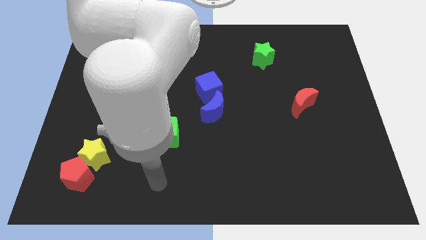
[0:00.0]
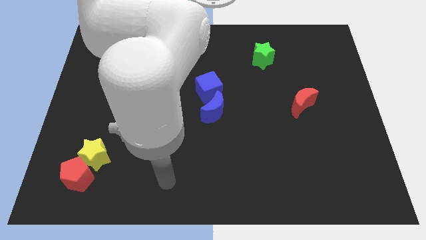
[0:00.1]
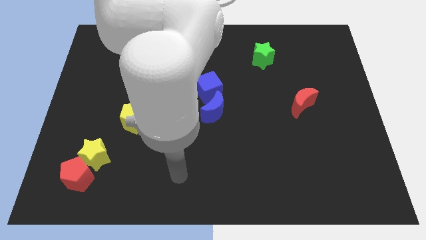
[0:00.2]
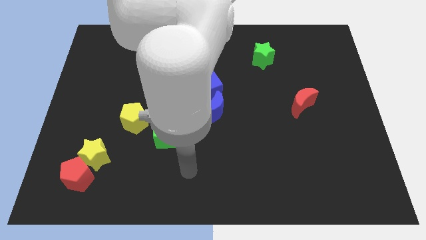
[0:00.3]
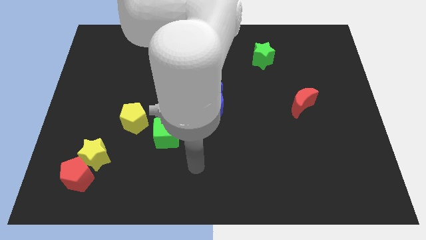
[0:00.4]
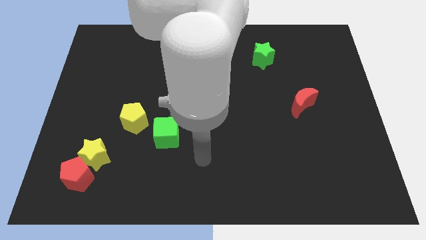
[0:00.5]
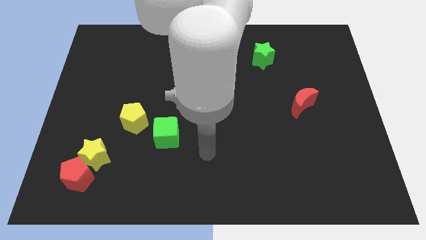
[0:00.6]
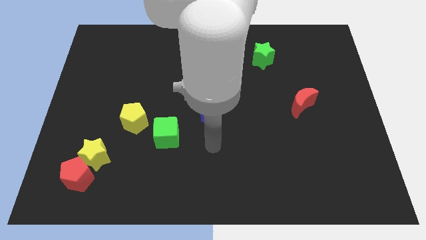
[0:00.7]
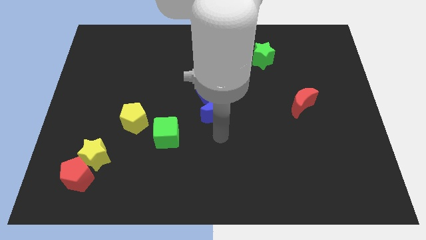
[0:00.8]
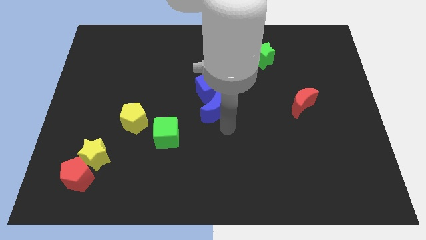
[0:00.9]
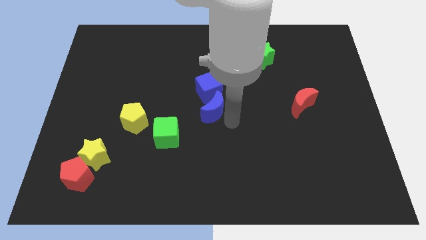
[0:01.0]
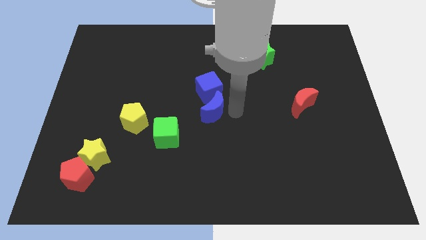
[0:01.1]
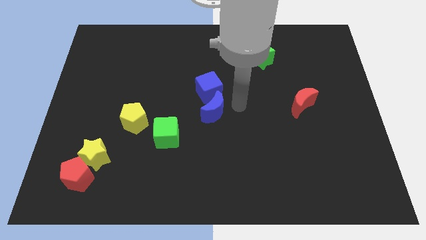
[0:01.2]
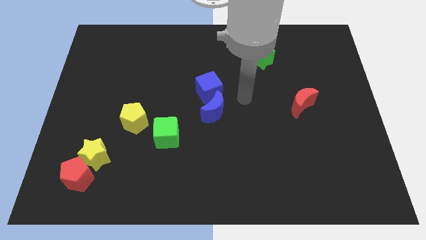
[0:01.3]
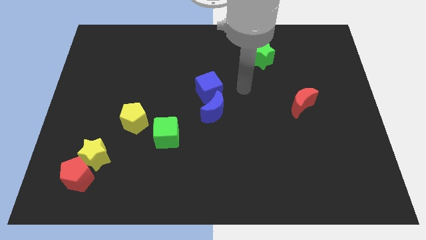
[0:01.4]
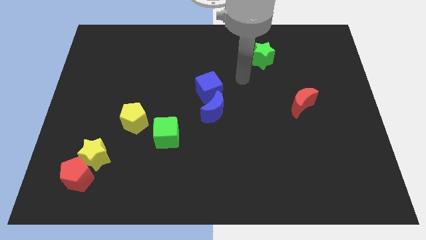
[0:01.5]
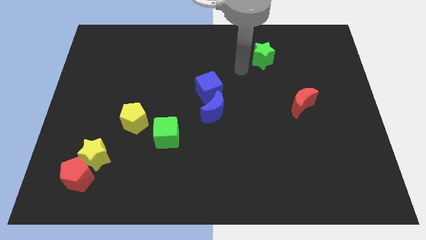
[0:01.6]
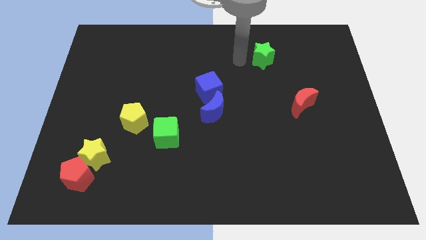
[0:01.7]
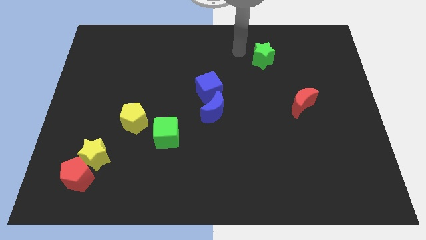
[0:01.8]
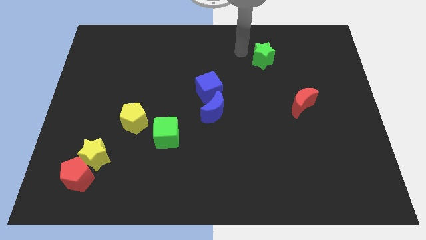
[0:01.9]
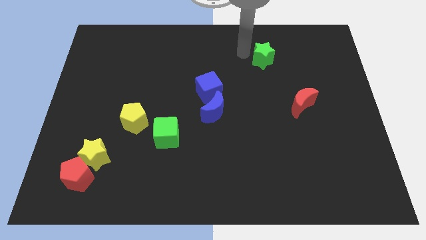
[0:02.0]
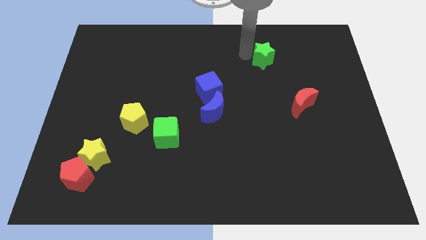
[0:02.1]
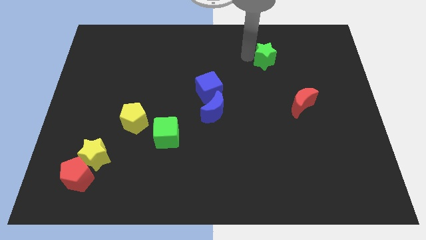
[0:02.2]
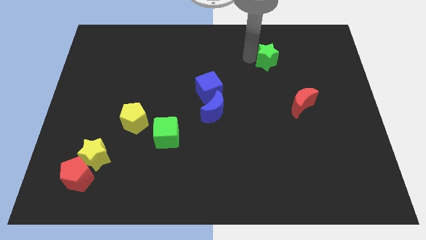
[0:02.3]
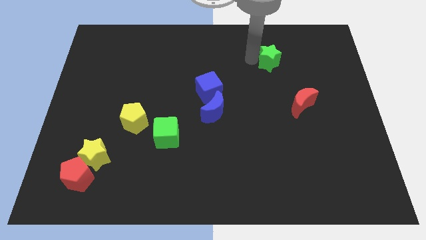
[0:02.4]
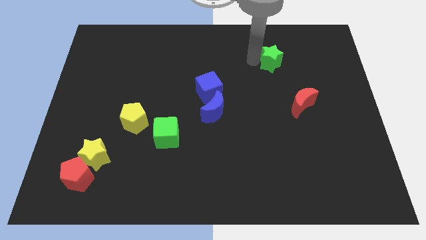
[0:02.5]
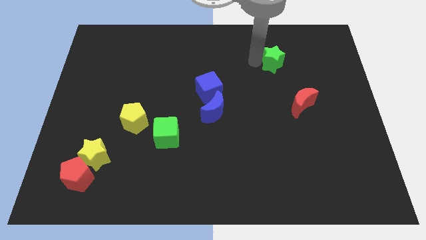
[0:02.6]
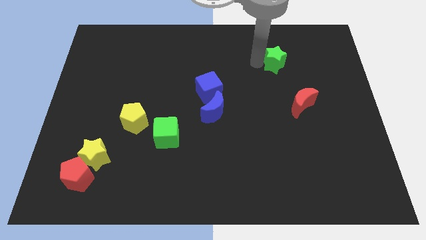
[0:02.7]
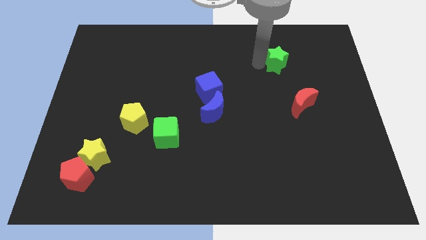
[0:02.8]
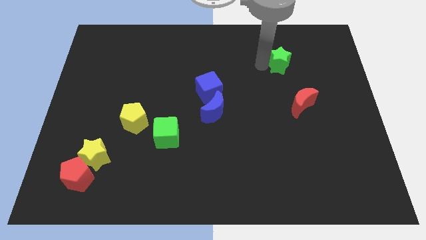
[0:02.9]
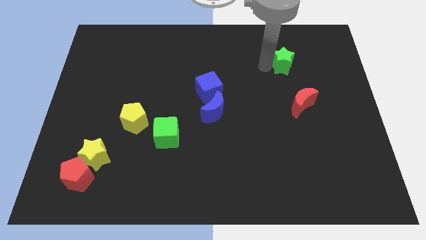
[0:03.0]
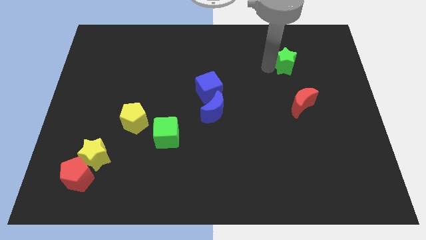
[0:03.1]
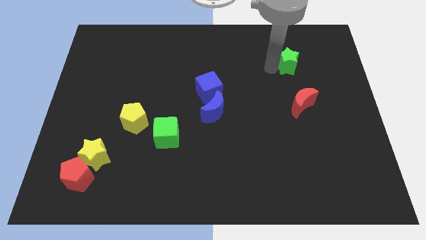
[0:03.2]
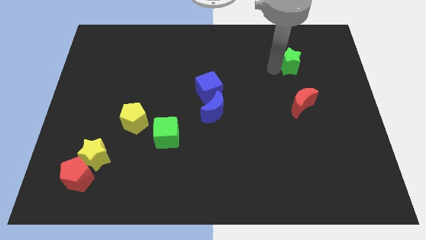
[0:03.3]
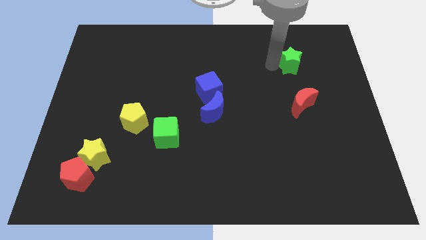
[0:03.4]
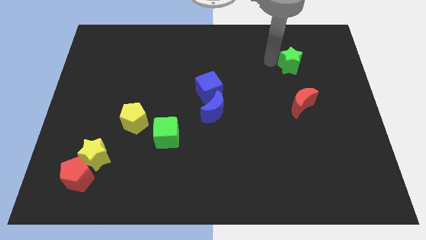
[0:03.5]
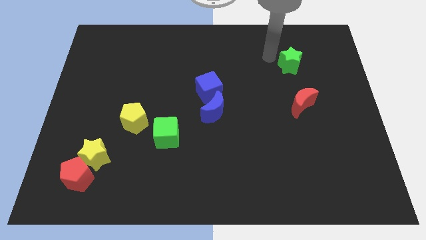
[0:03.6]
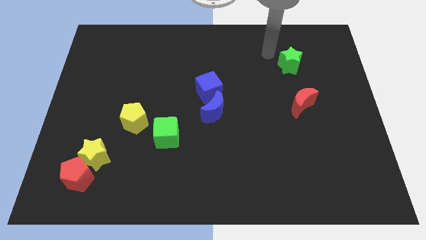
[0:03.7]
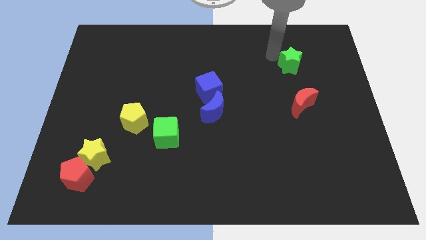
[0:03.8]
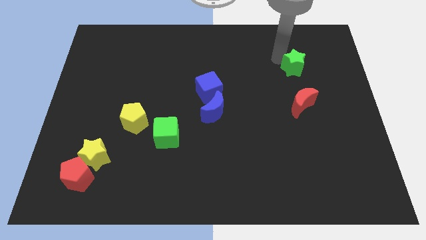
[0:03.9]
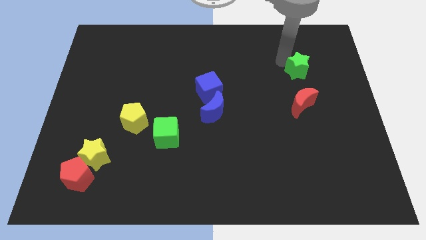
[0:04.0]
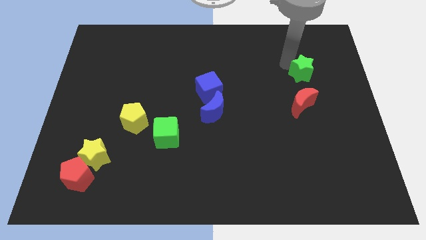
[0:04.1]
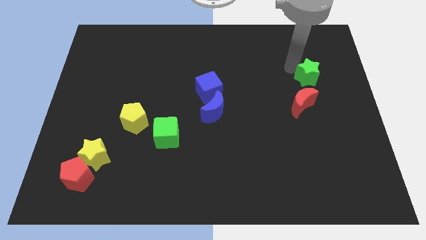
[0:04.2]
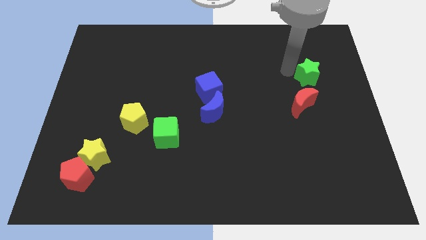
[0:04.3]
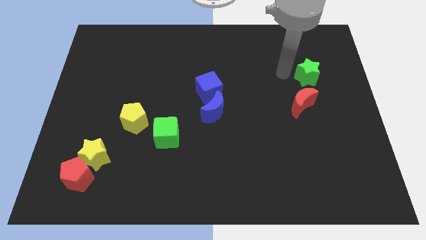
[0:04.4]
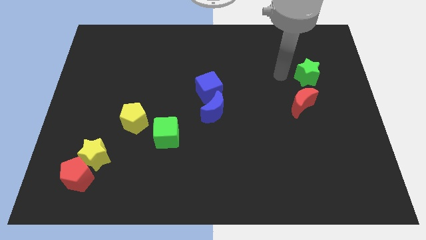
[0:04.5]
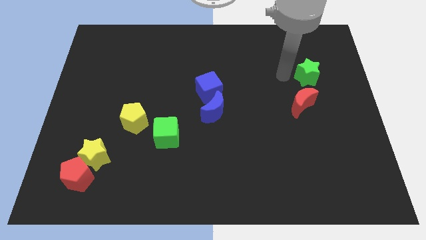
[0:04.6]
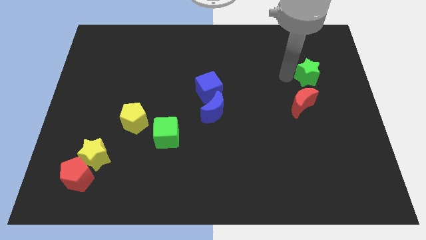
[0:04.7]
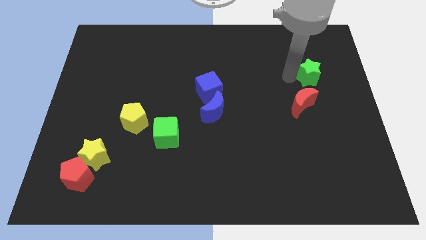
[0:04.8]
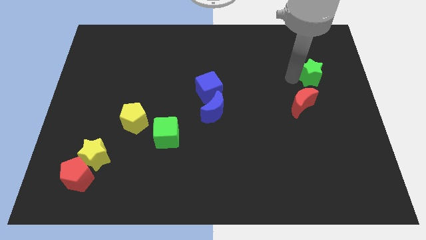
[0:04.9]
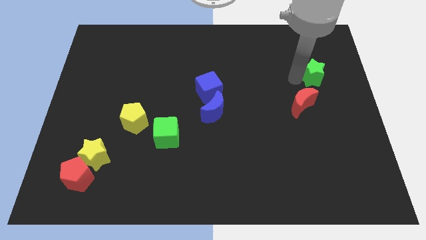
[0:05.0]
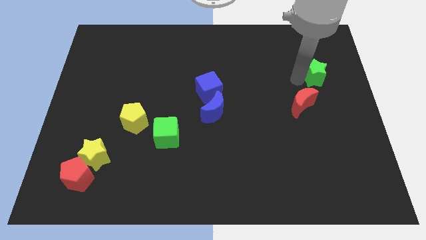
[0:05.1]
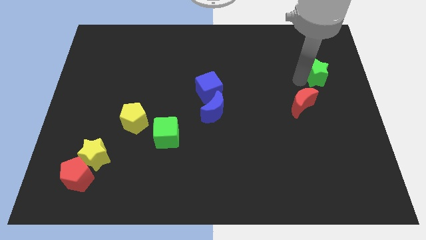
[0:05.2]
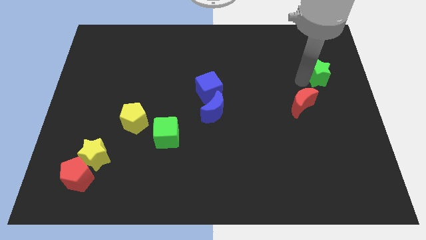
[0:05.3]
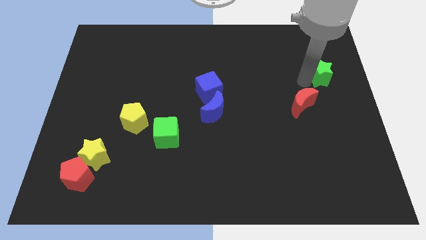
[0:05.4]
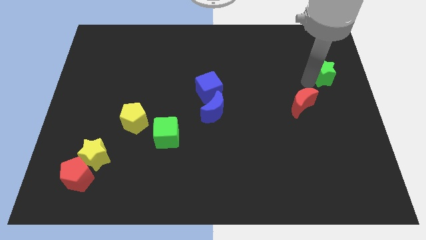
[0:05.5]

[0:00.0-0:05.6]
put the green star to the right side

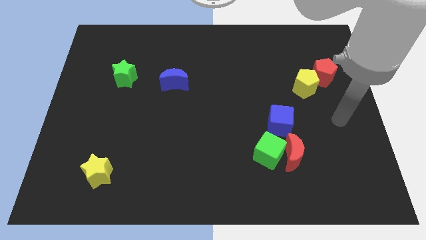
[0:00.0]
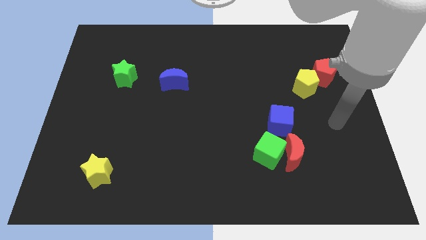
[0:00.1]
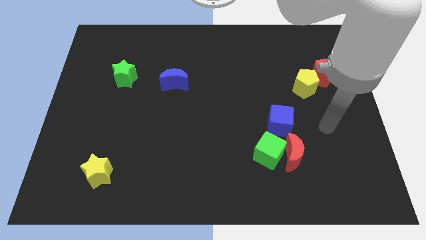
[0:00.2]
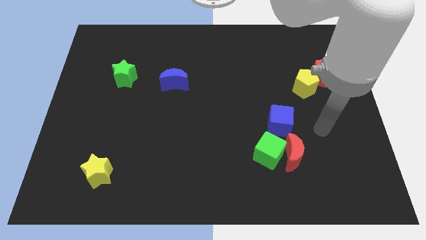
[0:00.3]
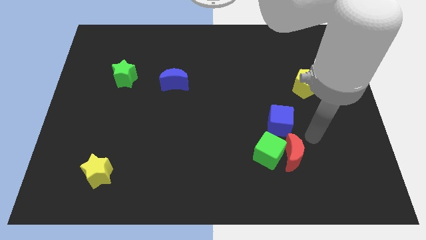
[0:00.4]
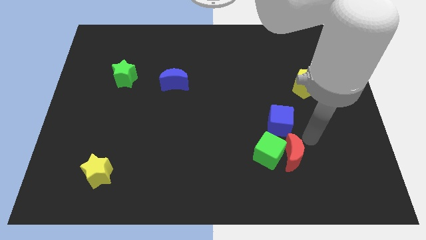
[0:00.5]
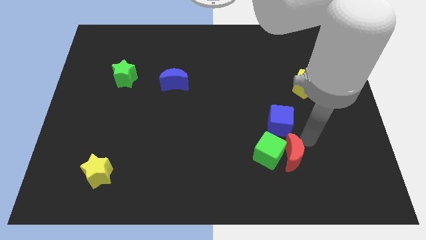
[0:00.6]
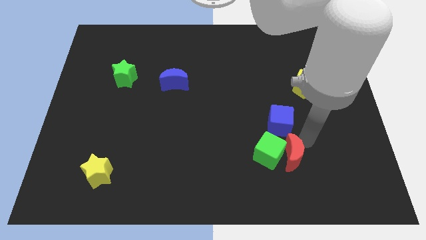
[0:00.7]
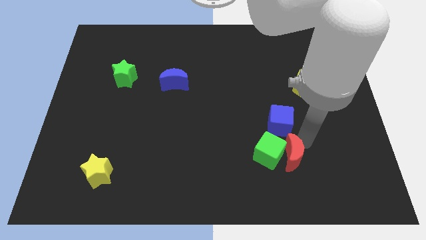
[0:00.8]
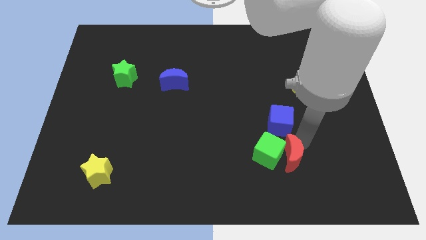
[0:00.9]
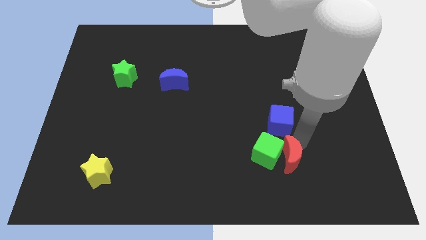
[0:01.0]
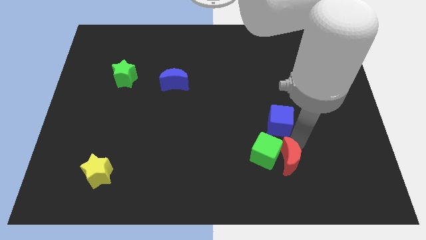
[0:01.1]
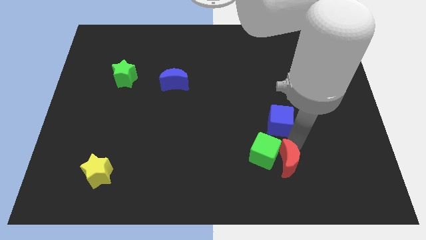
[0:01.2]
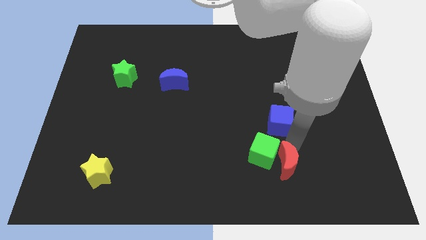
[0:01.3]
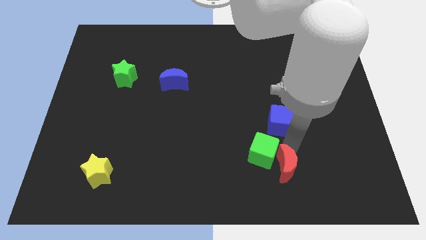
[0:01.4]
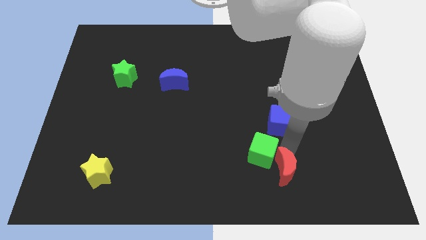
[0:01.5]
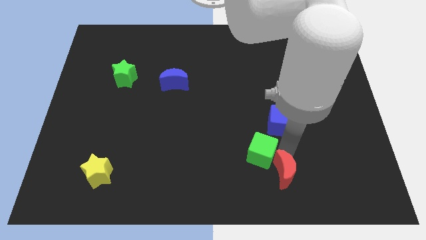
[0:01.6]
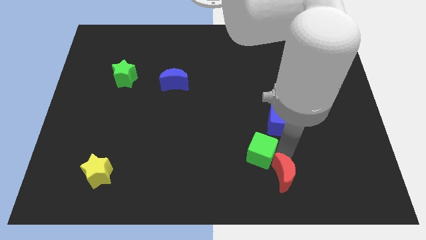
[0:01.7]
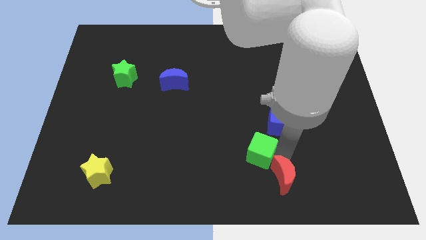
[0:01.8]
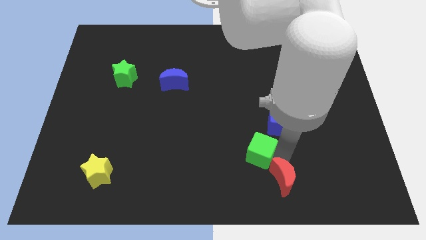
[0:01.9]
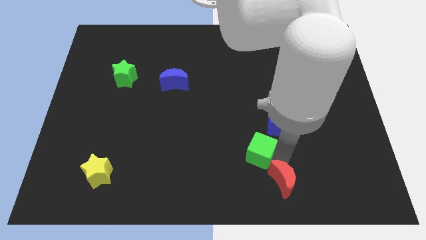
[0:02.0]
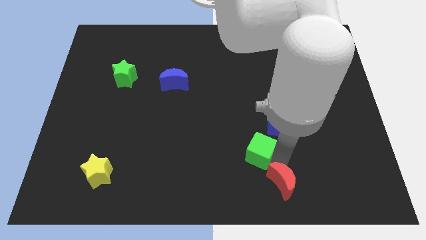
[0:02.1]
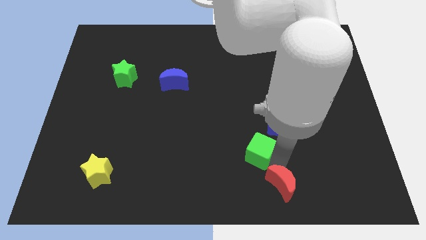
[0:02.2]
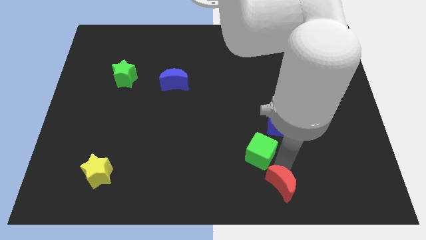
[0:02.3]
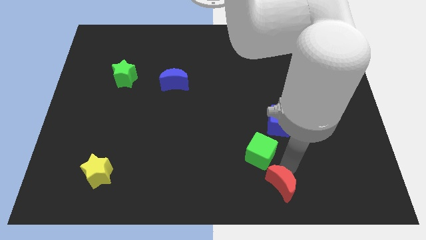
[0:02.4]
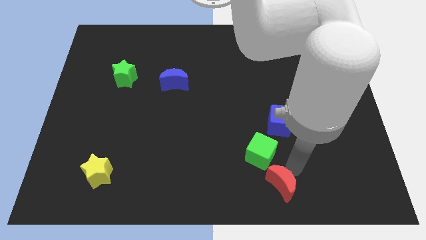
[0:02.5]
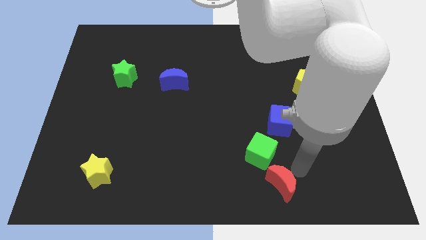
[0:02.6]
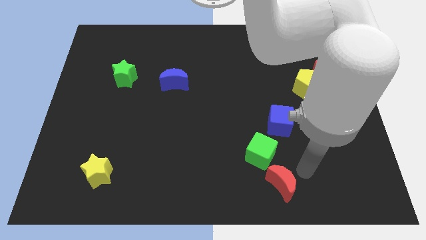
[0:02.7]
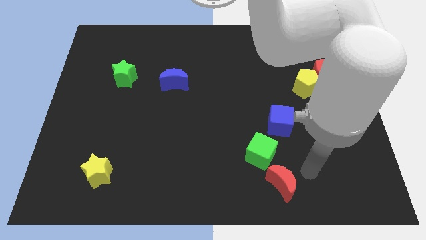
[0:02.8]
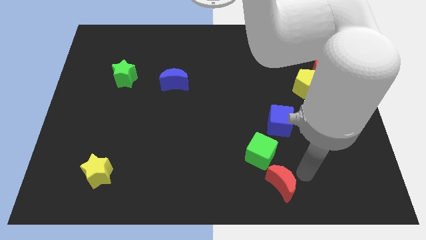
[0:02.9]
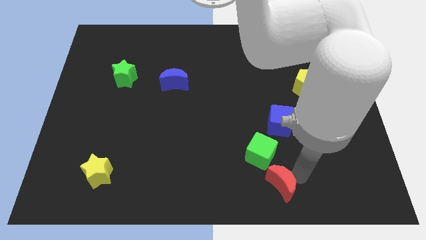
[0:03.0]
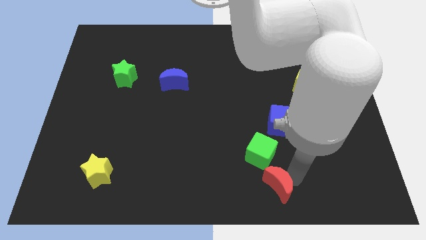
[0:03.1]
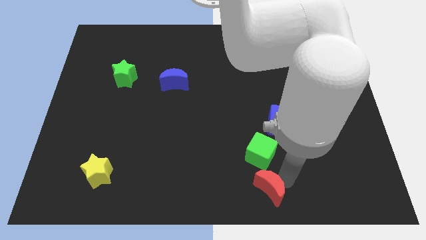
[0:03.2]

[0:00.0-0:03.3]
put the red moon to the bottom side
